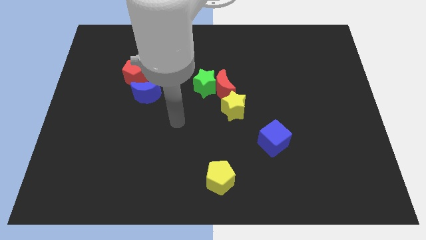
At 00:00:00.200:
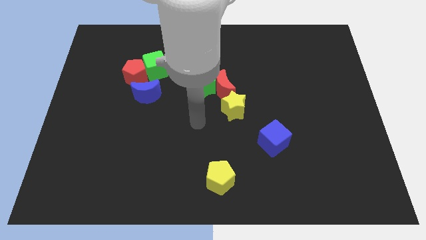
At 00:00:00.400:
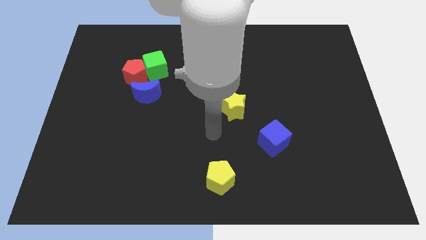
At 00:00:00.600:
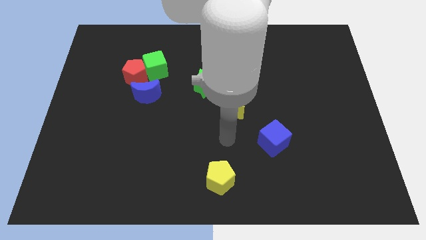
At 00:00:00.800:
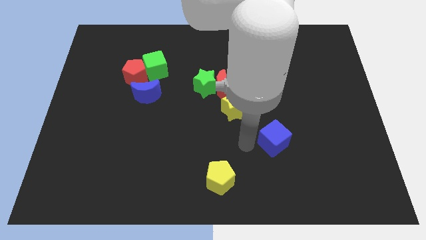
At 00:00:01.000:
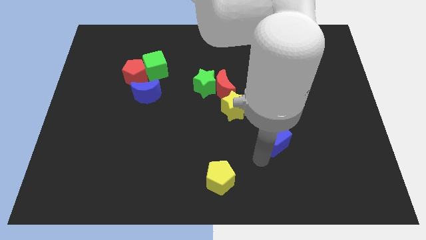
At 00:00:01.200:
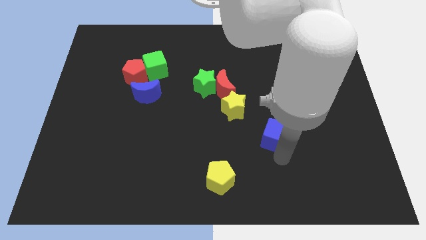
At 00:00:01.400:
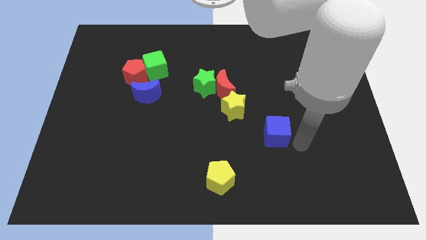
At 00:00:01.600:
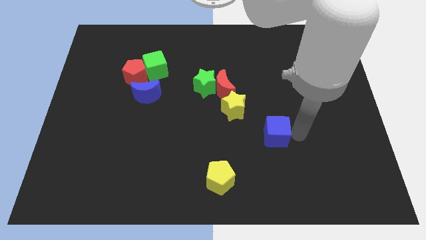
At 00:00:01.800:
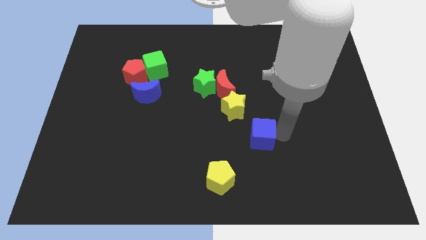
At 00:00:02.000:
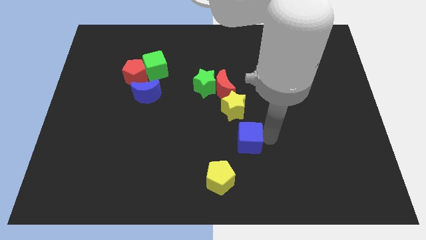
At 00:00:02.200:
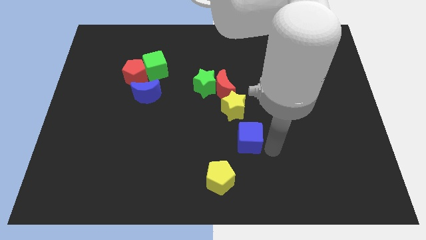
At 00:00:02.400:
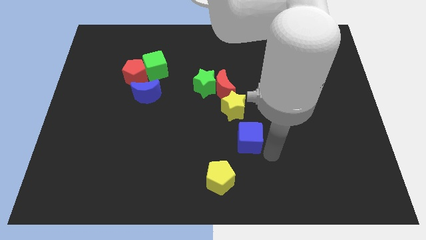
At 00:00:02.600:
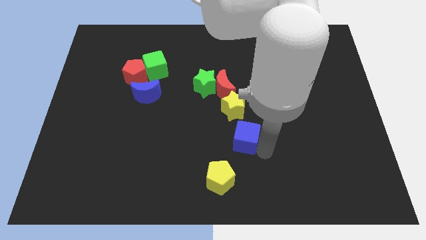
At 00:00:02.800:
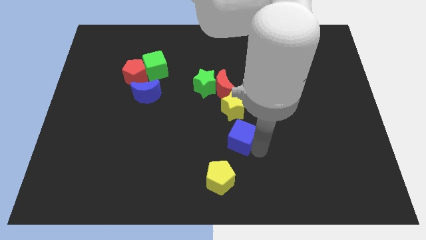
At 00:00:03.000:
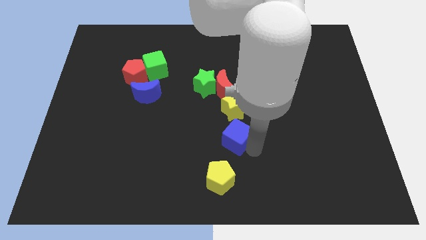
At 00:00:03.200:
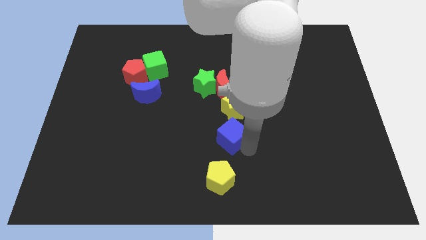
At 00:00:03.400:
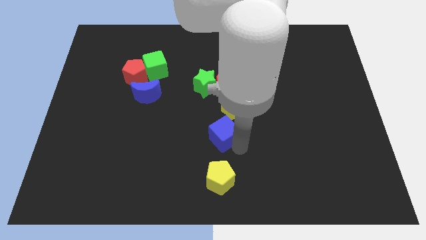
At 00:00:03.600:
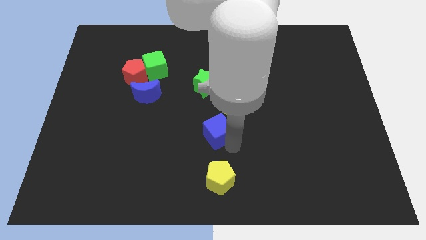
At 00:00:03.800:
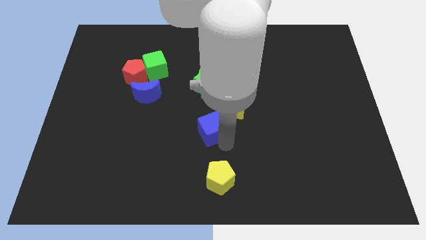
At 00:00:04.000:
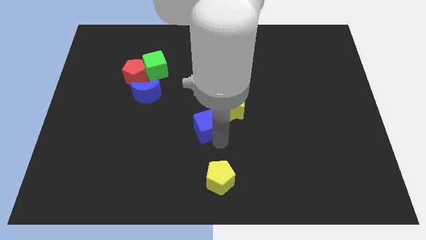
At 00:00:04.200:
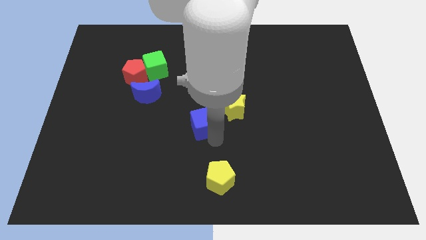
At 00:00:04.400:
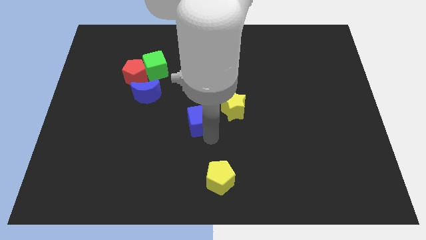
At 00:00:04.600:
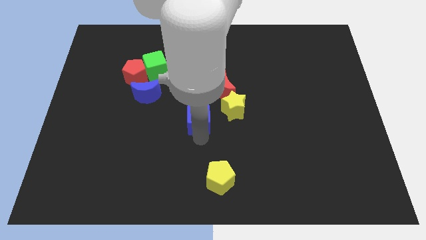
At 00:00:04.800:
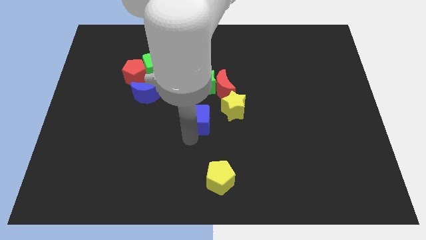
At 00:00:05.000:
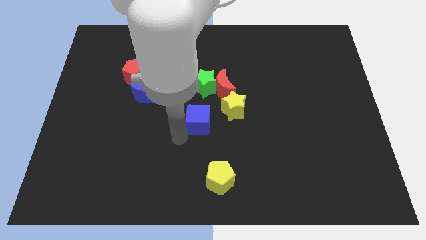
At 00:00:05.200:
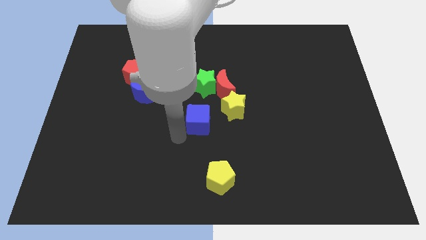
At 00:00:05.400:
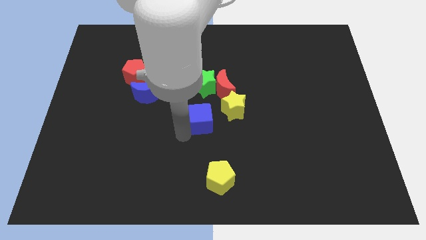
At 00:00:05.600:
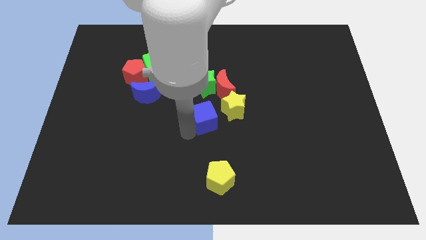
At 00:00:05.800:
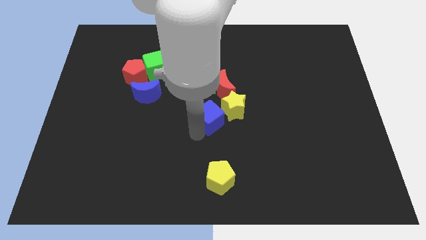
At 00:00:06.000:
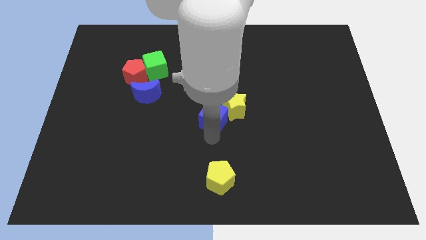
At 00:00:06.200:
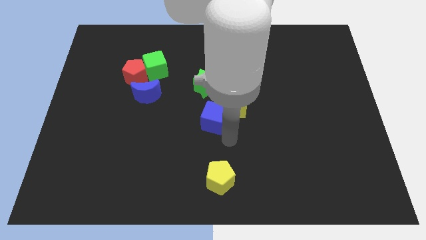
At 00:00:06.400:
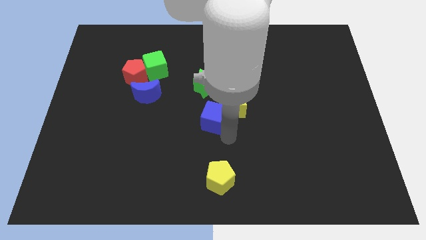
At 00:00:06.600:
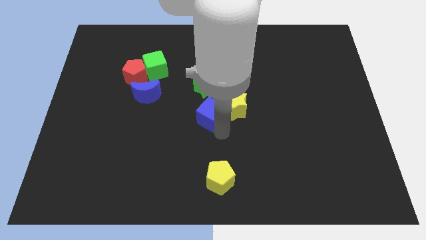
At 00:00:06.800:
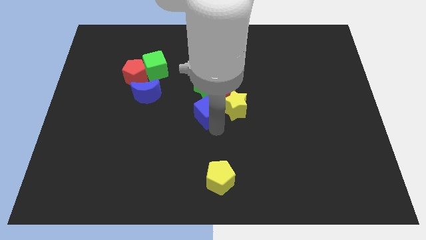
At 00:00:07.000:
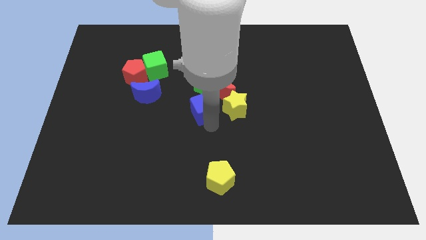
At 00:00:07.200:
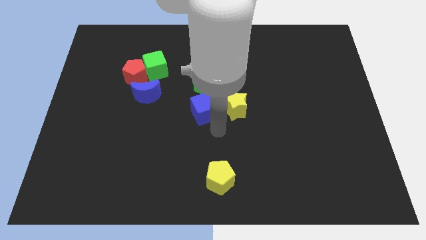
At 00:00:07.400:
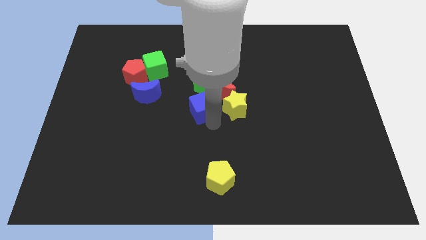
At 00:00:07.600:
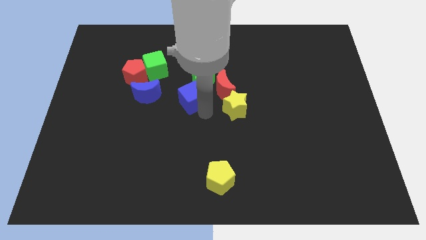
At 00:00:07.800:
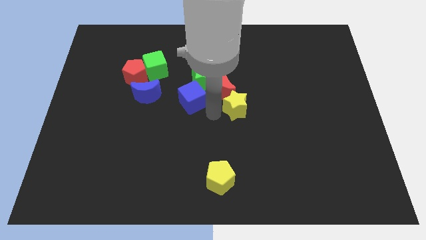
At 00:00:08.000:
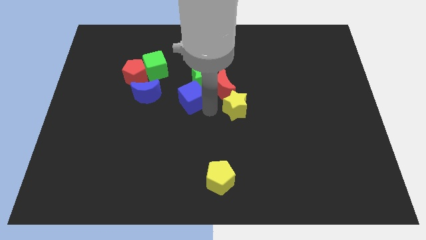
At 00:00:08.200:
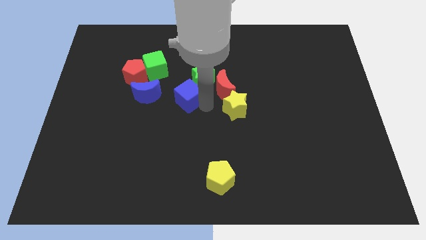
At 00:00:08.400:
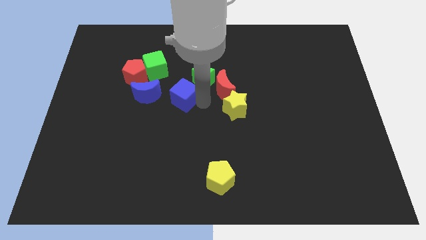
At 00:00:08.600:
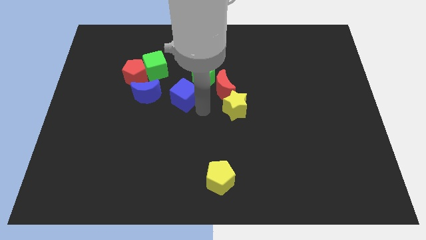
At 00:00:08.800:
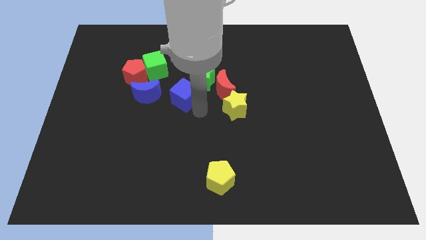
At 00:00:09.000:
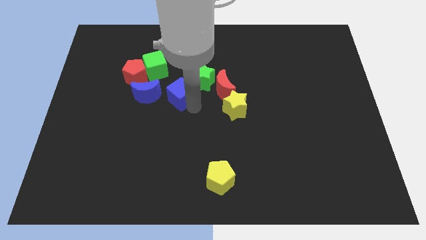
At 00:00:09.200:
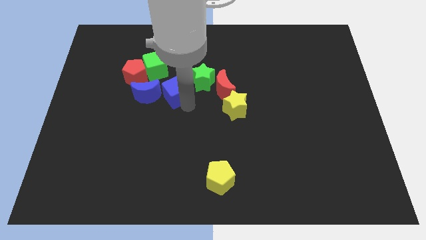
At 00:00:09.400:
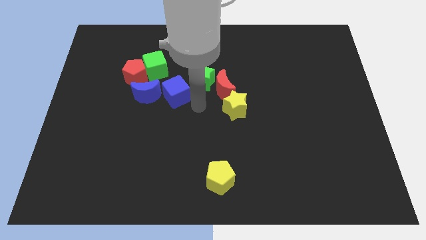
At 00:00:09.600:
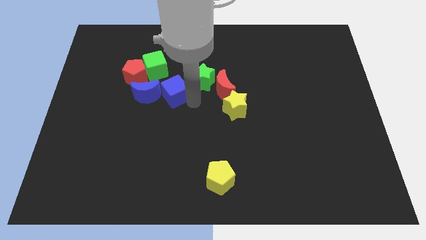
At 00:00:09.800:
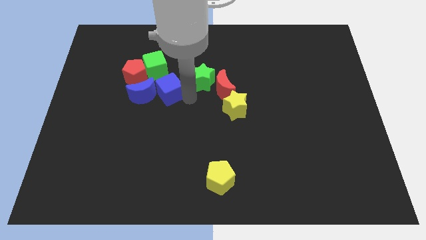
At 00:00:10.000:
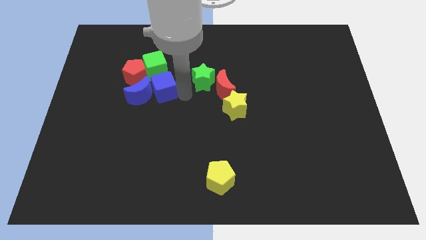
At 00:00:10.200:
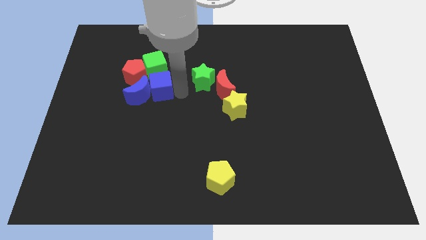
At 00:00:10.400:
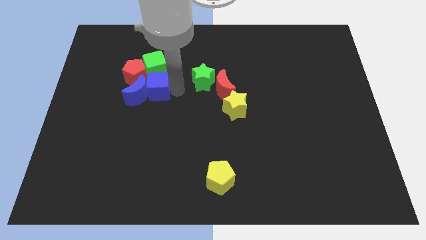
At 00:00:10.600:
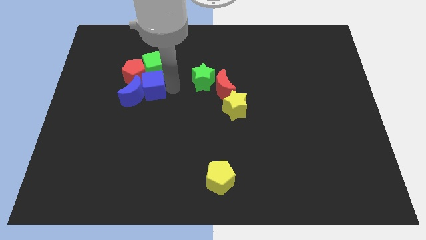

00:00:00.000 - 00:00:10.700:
slide the blue cube to the red pentagon

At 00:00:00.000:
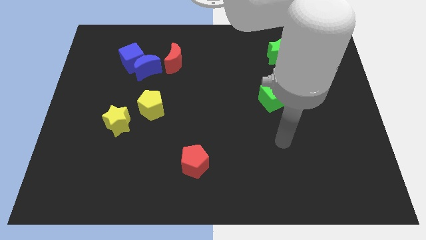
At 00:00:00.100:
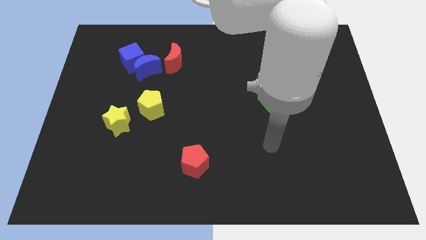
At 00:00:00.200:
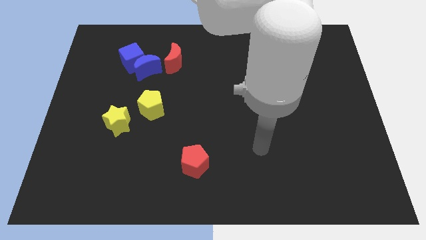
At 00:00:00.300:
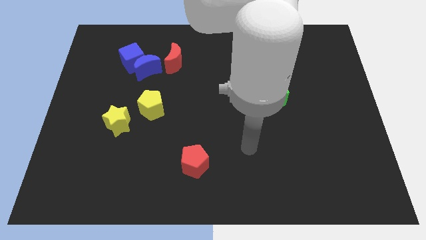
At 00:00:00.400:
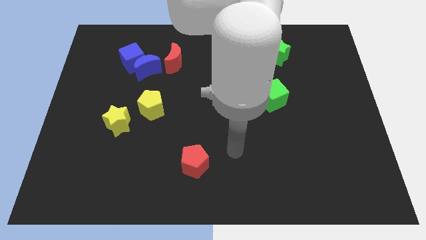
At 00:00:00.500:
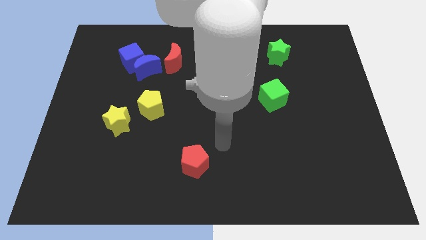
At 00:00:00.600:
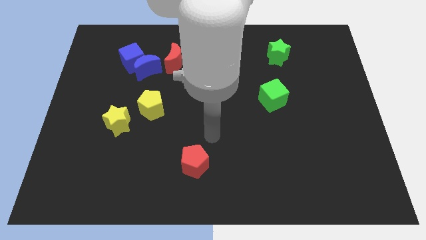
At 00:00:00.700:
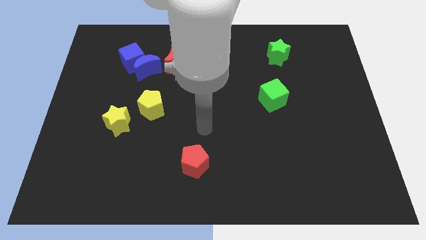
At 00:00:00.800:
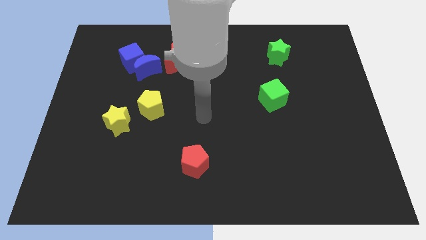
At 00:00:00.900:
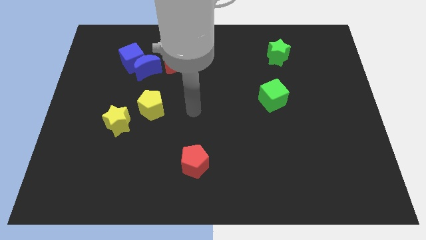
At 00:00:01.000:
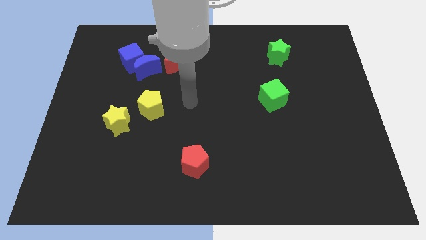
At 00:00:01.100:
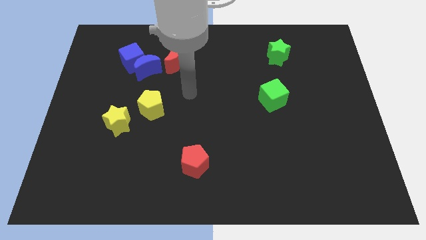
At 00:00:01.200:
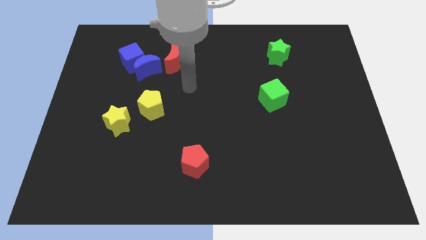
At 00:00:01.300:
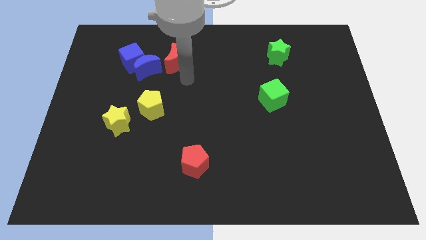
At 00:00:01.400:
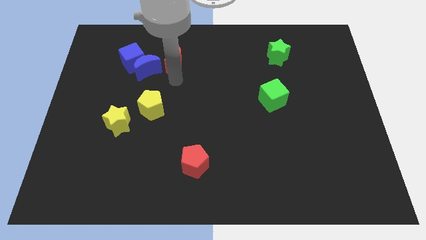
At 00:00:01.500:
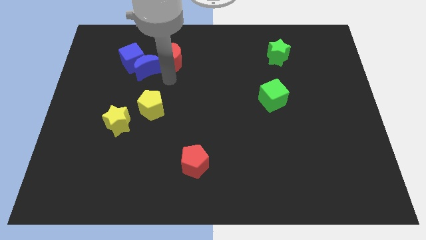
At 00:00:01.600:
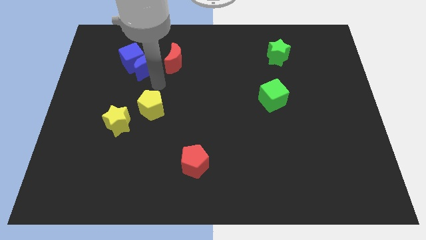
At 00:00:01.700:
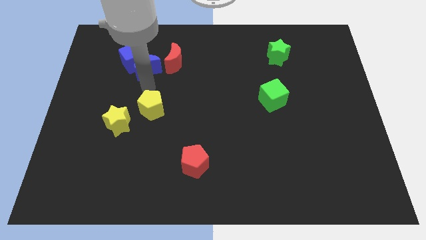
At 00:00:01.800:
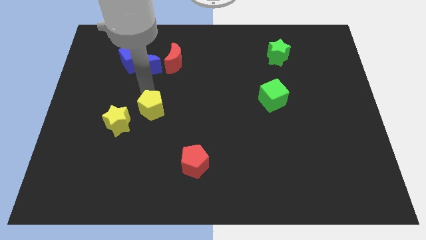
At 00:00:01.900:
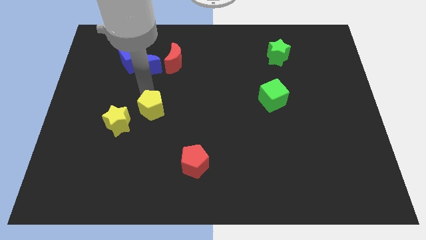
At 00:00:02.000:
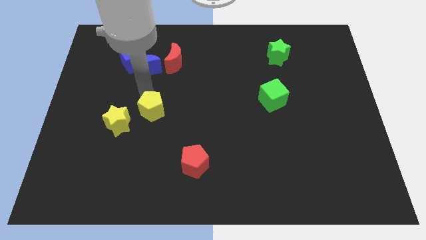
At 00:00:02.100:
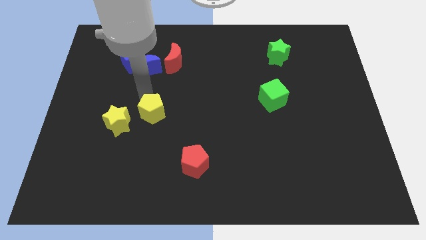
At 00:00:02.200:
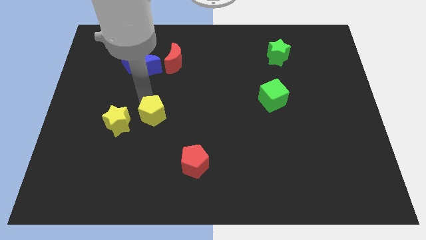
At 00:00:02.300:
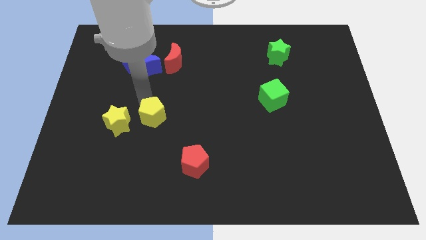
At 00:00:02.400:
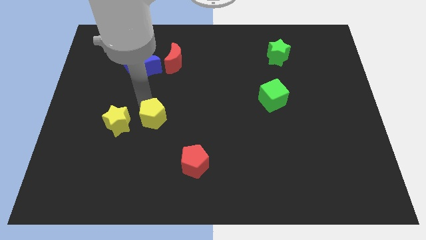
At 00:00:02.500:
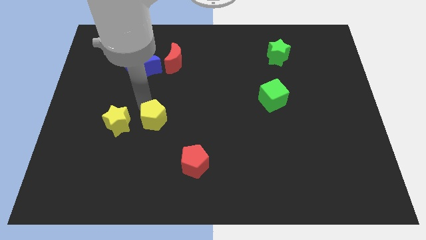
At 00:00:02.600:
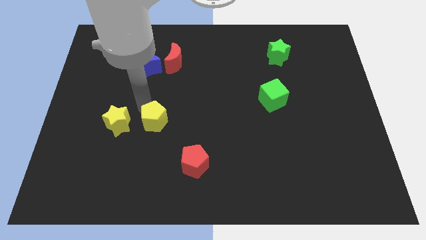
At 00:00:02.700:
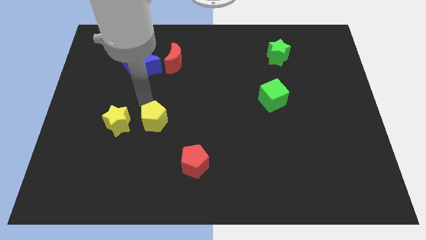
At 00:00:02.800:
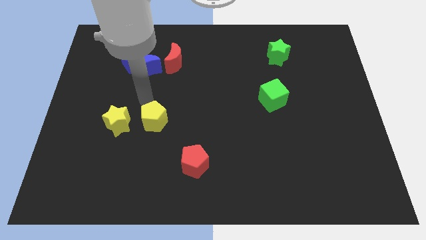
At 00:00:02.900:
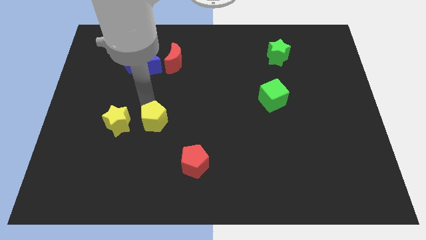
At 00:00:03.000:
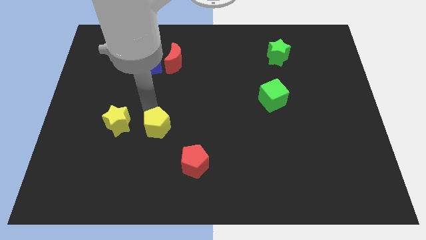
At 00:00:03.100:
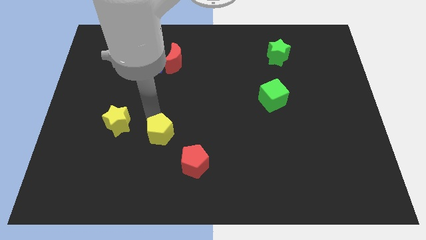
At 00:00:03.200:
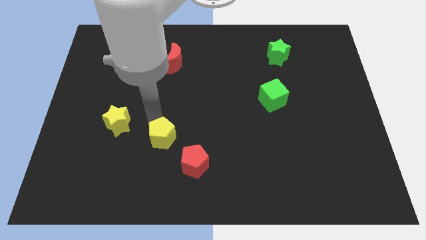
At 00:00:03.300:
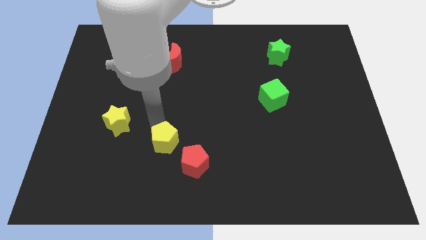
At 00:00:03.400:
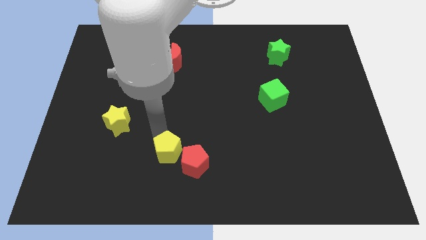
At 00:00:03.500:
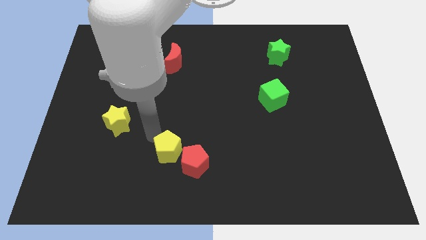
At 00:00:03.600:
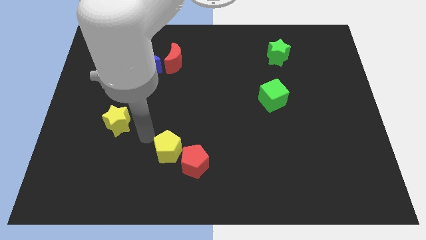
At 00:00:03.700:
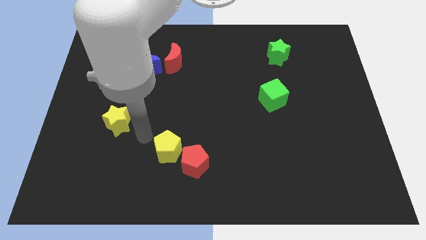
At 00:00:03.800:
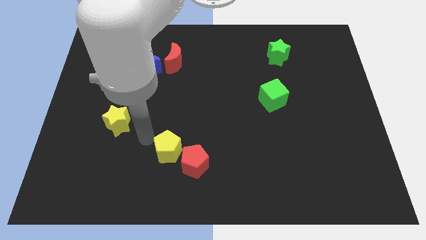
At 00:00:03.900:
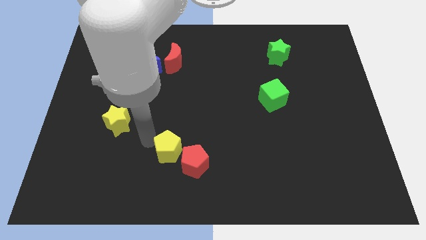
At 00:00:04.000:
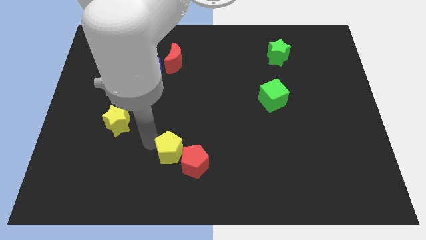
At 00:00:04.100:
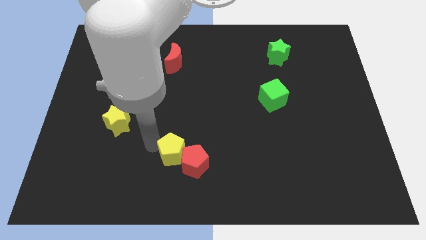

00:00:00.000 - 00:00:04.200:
slide the yellow pentagon next to the red pentagon
